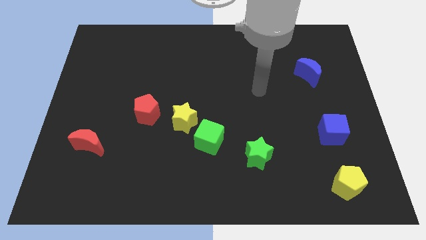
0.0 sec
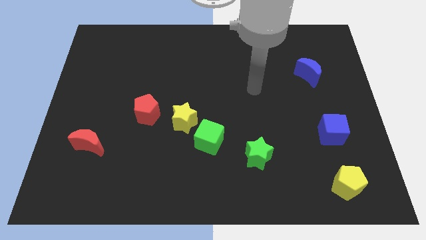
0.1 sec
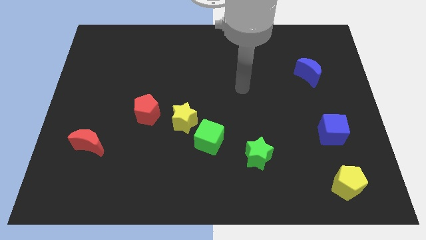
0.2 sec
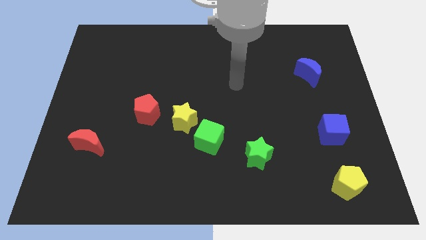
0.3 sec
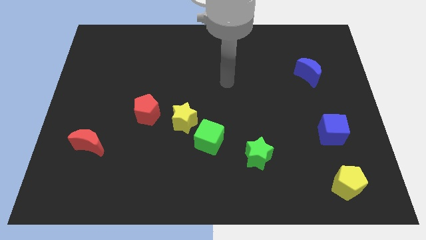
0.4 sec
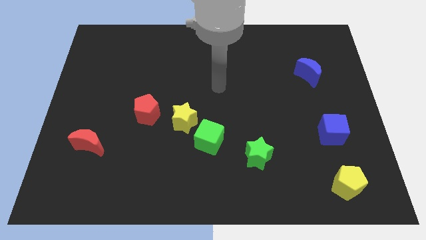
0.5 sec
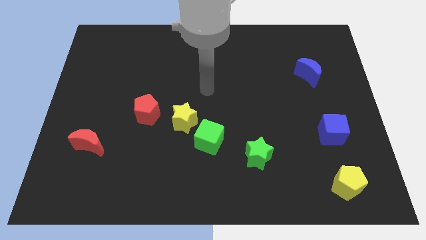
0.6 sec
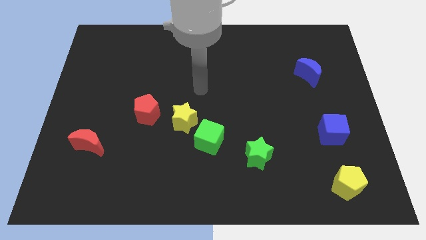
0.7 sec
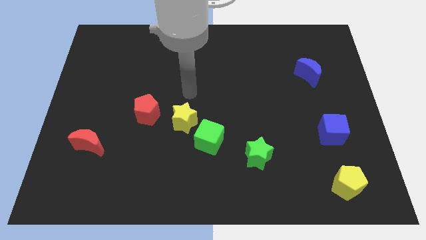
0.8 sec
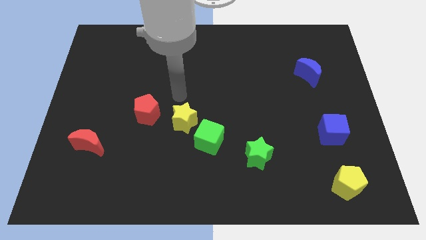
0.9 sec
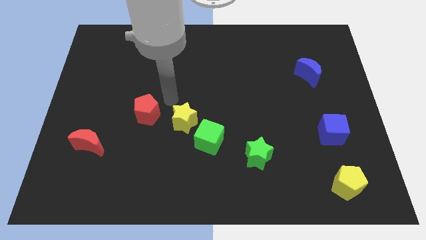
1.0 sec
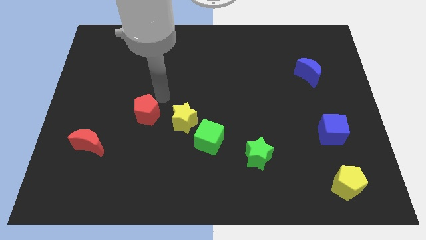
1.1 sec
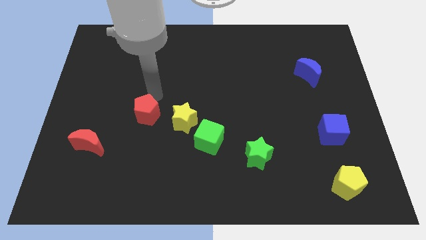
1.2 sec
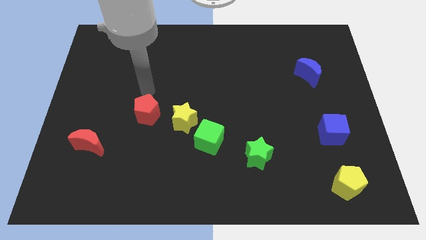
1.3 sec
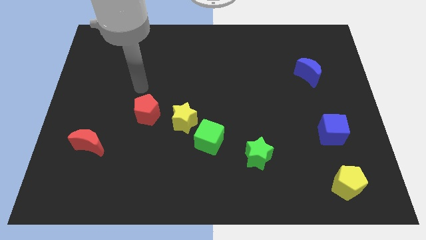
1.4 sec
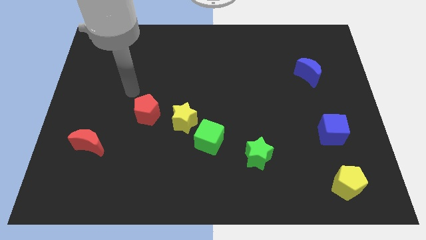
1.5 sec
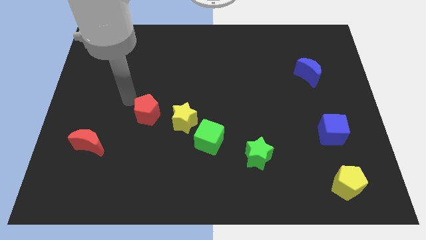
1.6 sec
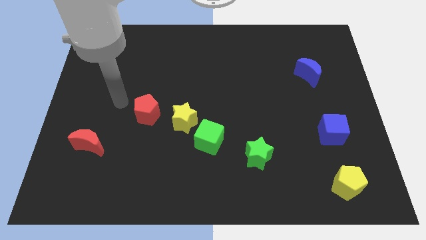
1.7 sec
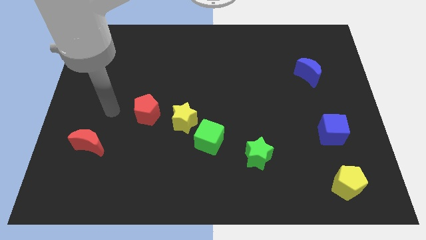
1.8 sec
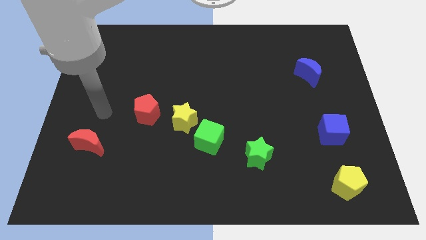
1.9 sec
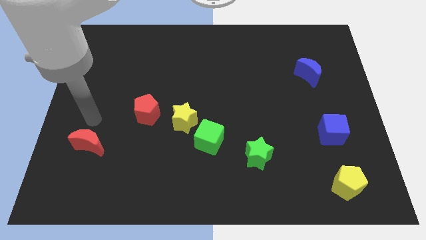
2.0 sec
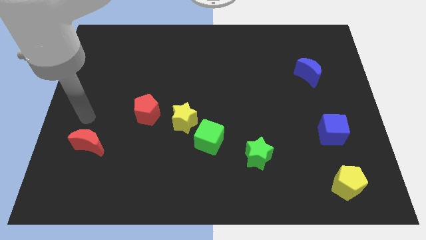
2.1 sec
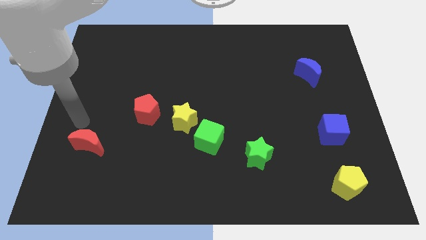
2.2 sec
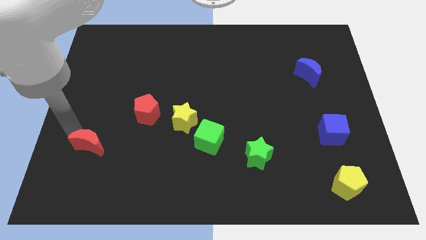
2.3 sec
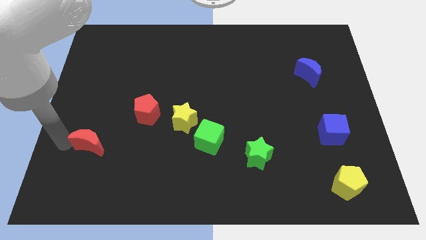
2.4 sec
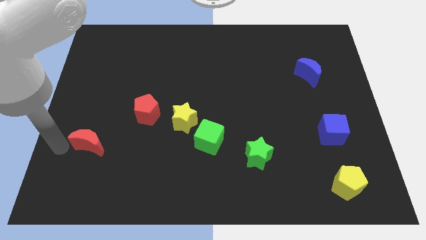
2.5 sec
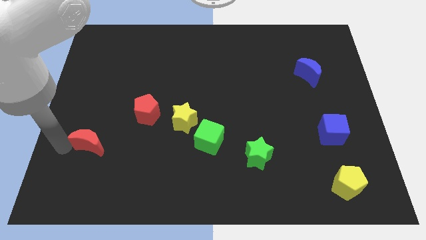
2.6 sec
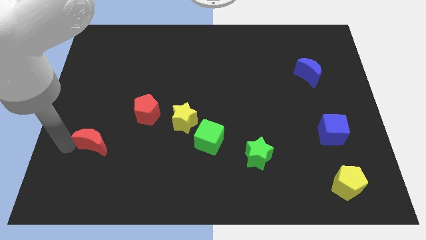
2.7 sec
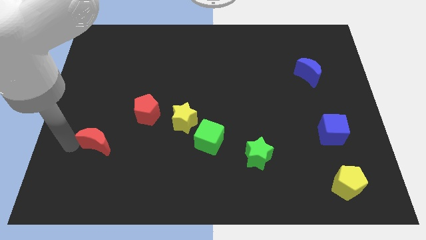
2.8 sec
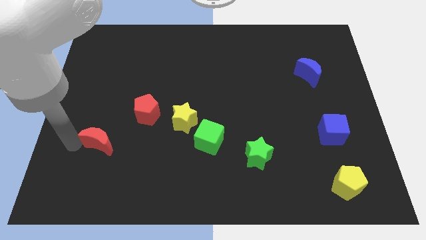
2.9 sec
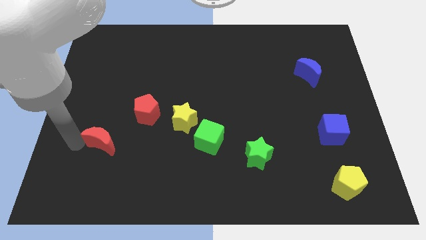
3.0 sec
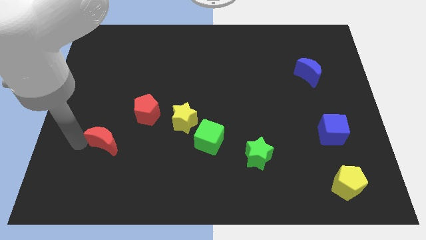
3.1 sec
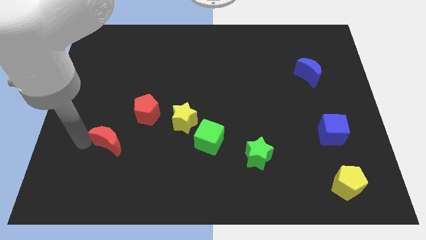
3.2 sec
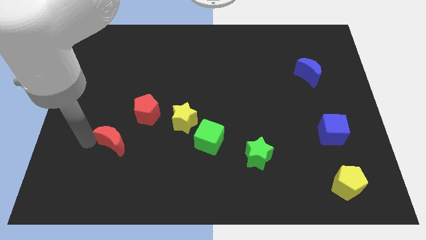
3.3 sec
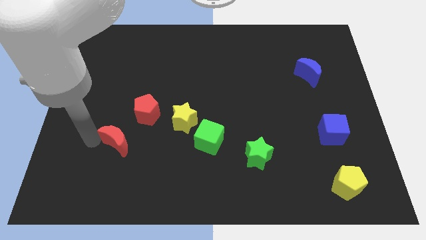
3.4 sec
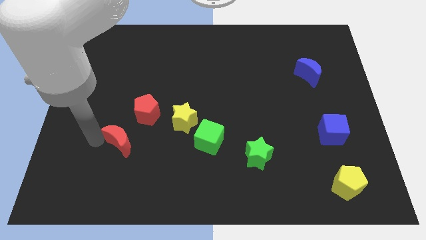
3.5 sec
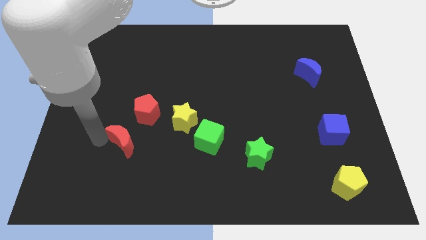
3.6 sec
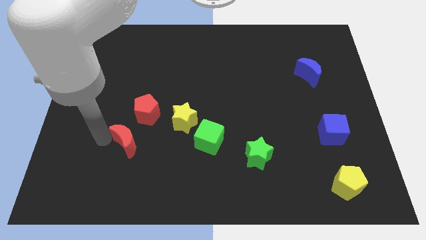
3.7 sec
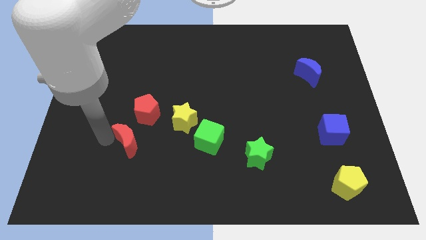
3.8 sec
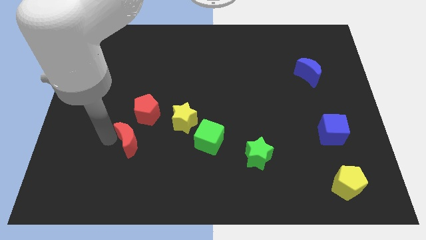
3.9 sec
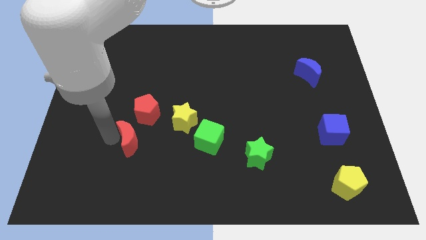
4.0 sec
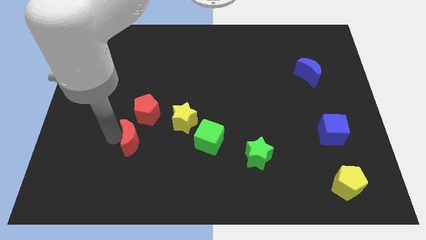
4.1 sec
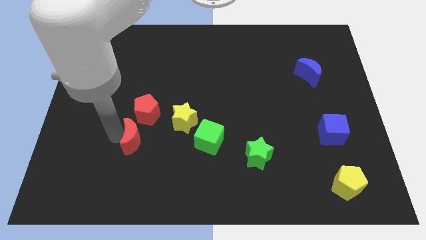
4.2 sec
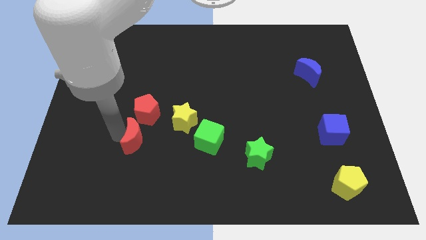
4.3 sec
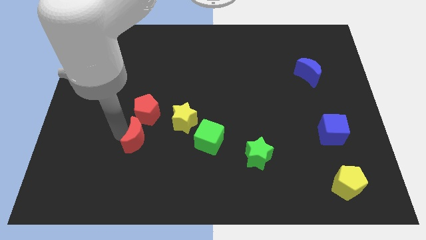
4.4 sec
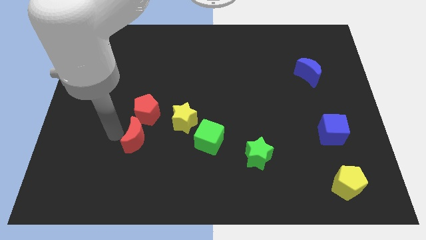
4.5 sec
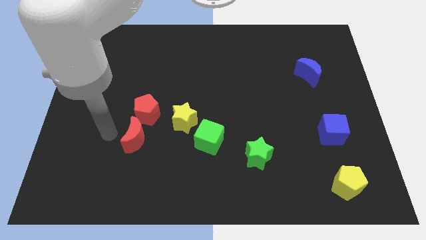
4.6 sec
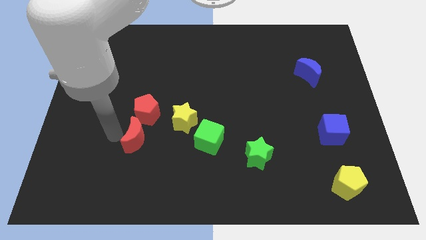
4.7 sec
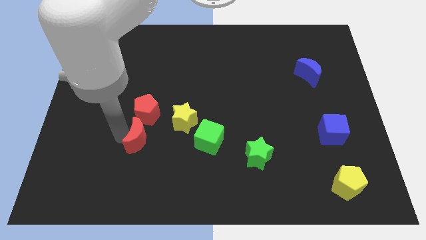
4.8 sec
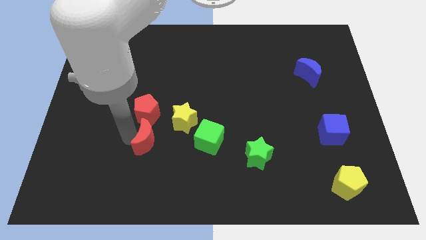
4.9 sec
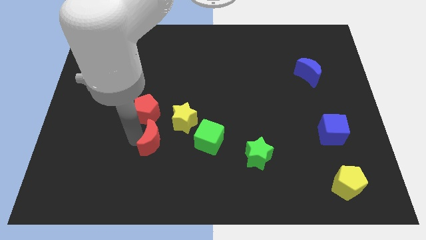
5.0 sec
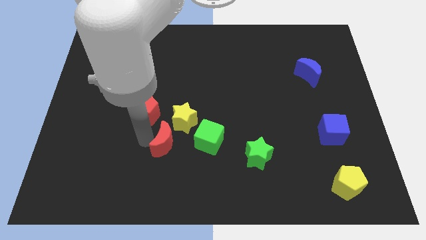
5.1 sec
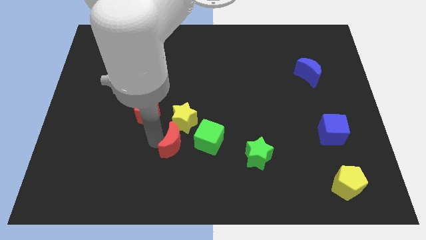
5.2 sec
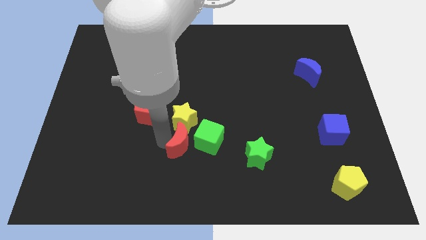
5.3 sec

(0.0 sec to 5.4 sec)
slide the red moon right

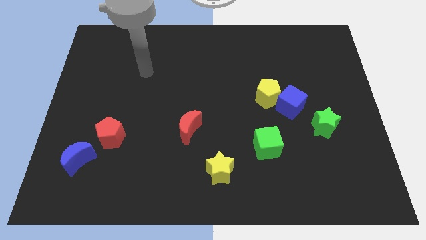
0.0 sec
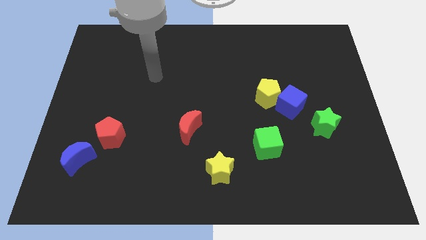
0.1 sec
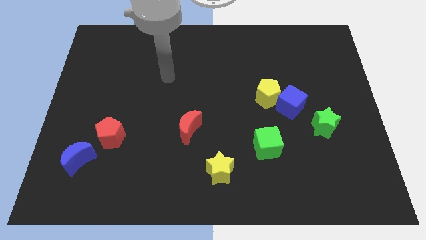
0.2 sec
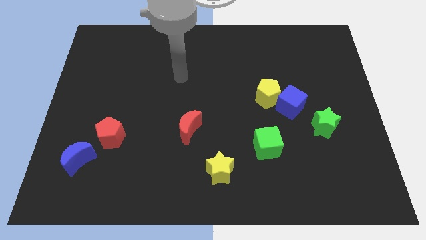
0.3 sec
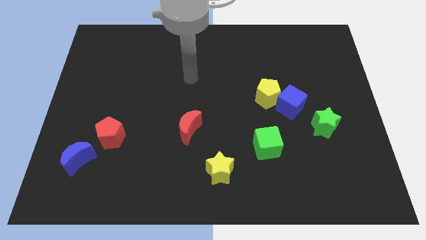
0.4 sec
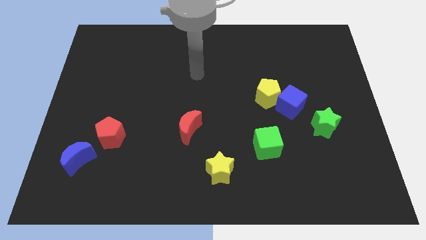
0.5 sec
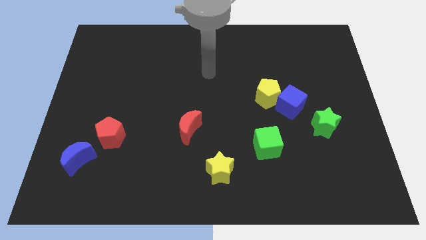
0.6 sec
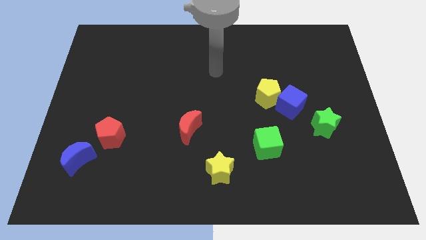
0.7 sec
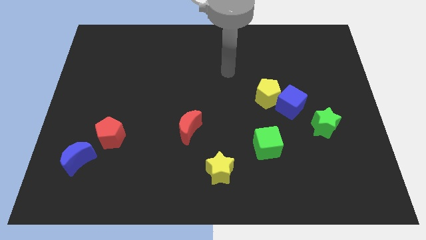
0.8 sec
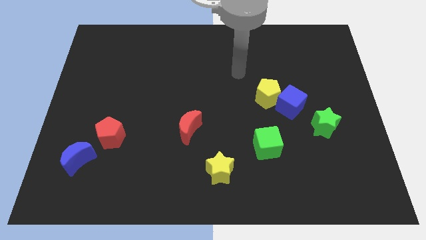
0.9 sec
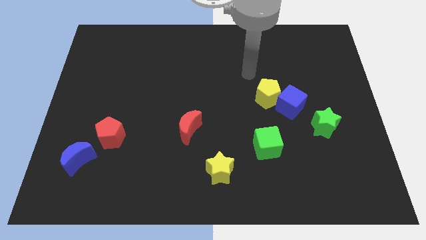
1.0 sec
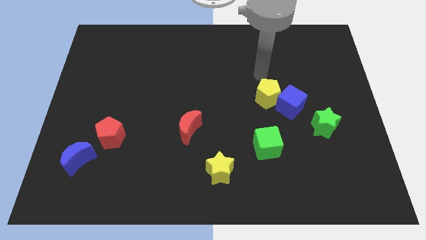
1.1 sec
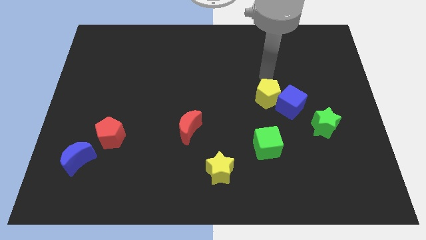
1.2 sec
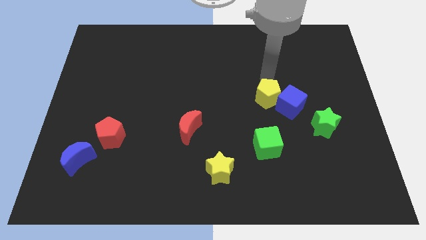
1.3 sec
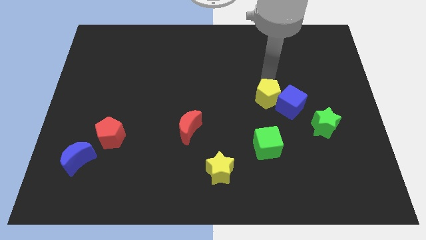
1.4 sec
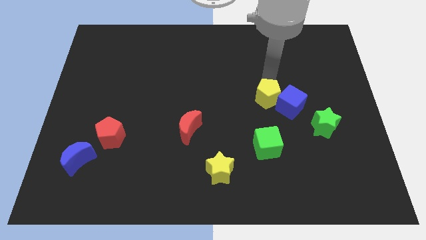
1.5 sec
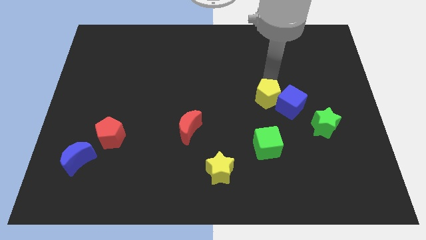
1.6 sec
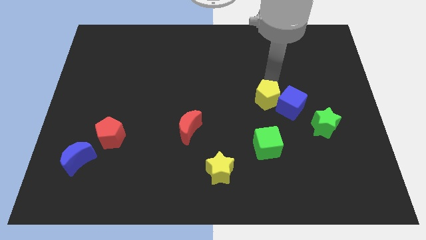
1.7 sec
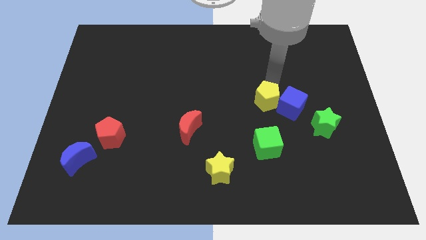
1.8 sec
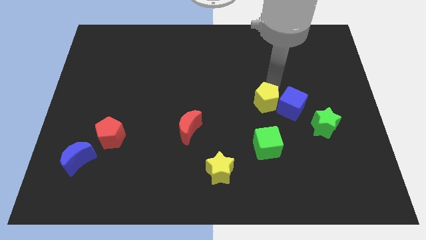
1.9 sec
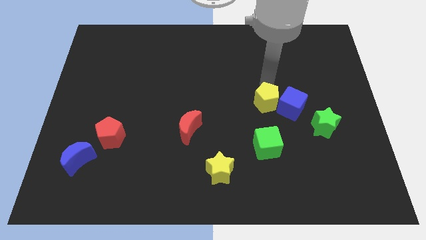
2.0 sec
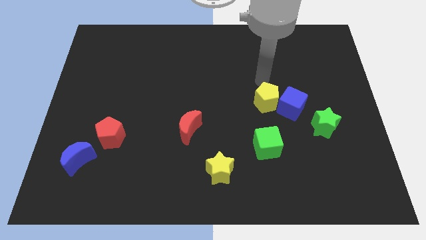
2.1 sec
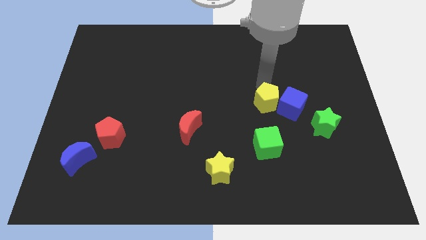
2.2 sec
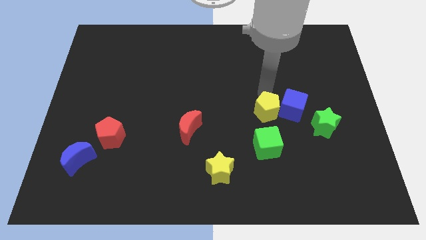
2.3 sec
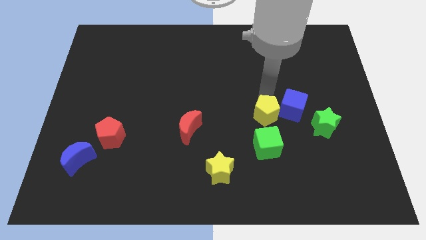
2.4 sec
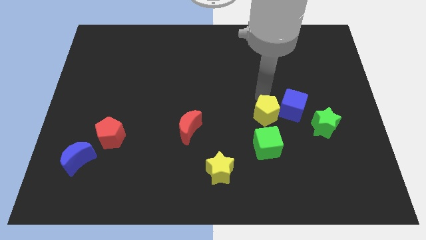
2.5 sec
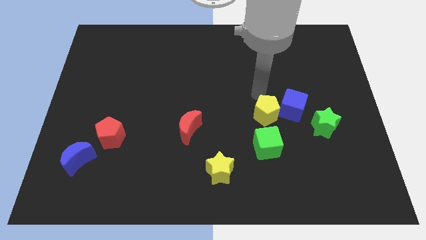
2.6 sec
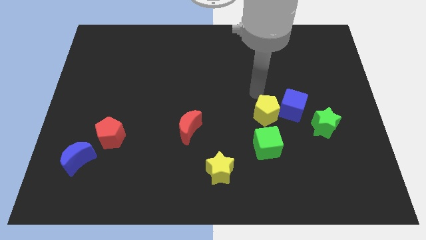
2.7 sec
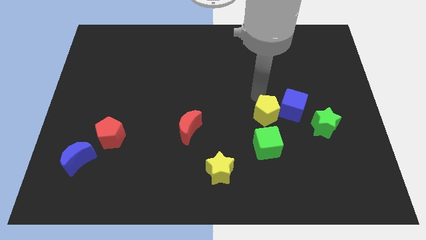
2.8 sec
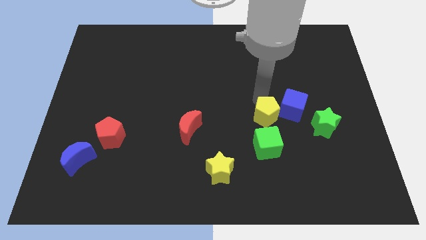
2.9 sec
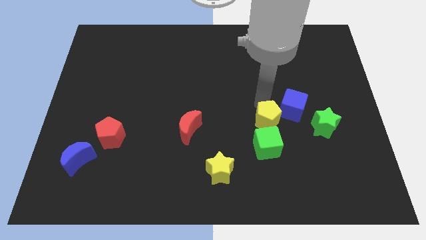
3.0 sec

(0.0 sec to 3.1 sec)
push the yellow pentagon a little bit downwards
